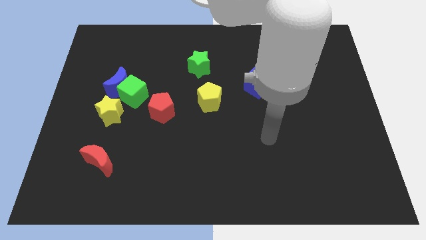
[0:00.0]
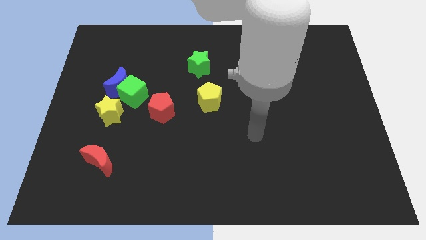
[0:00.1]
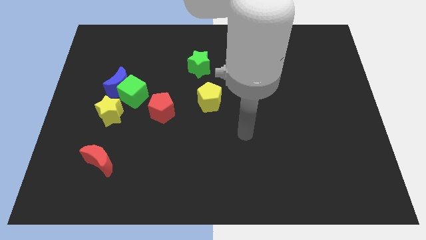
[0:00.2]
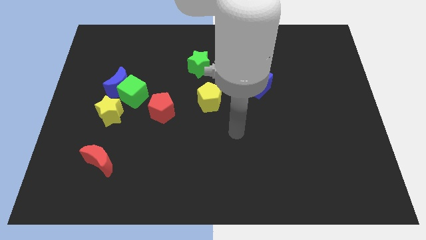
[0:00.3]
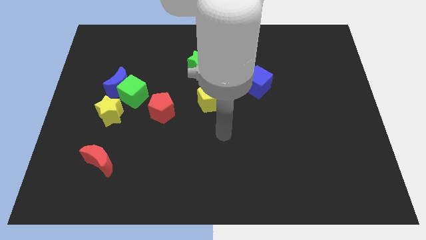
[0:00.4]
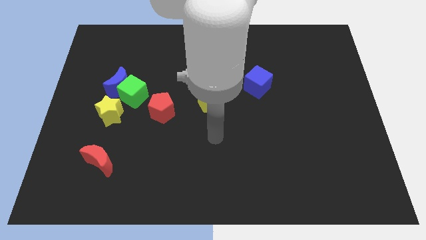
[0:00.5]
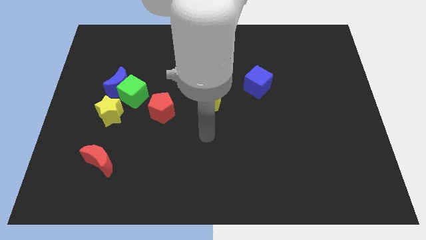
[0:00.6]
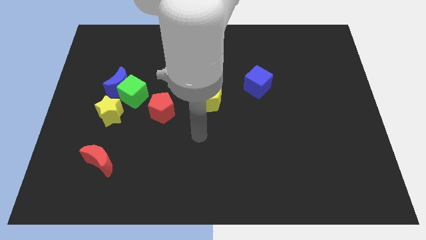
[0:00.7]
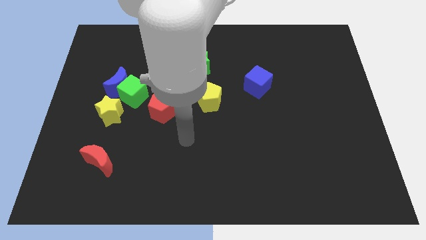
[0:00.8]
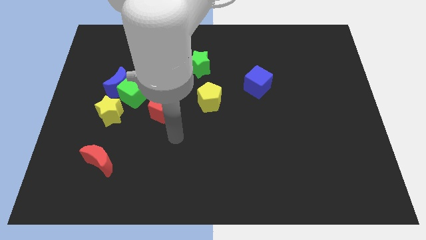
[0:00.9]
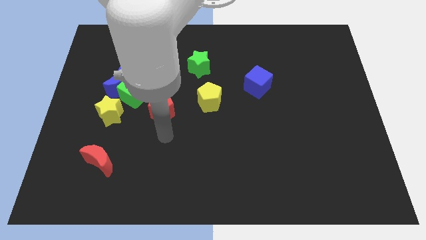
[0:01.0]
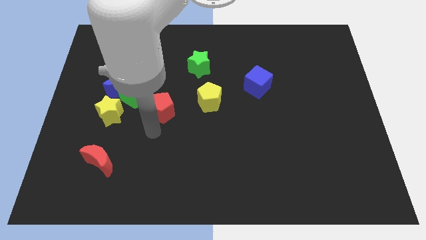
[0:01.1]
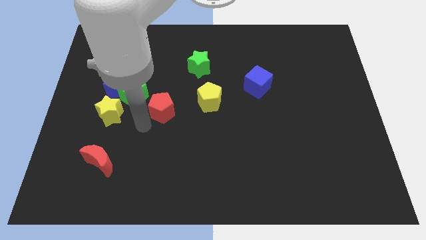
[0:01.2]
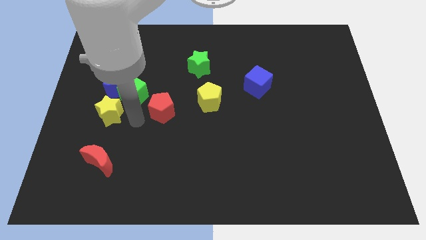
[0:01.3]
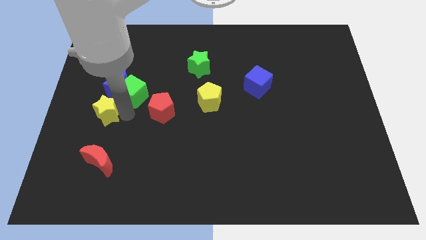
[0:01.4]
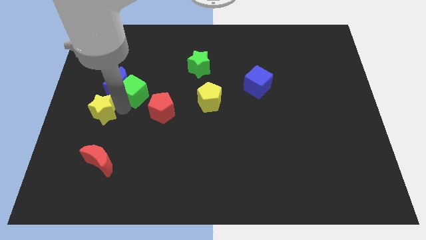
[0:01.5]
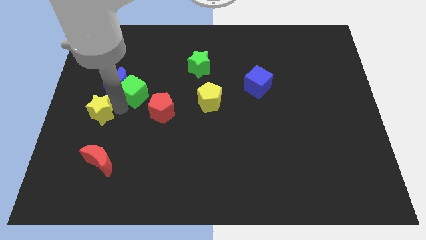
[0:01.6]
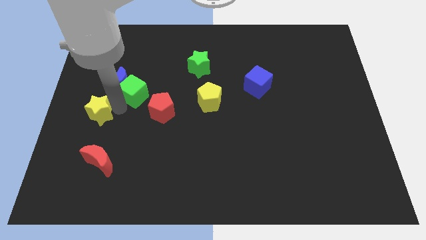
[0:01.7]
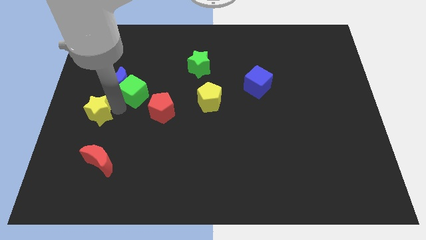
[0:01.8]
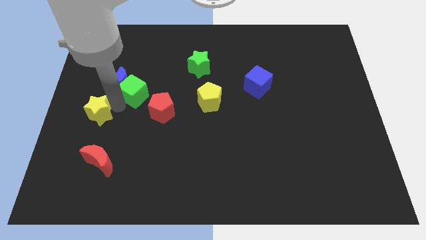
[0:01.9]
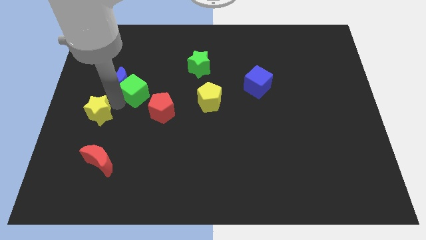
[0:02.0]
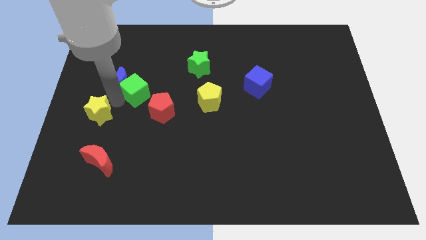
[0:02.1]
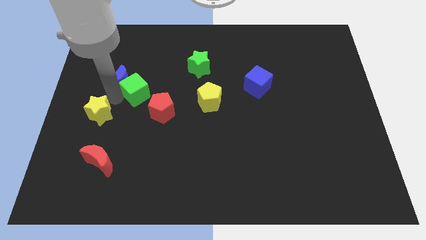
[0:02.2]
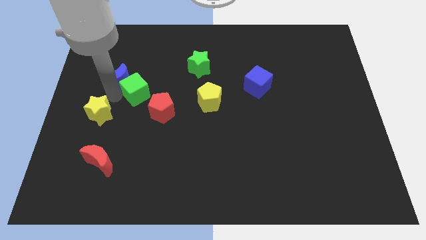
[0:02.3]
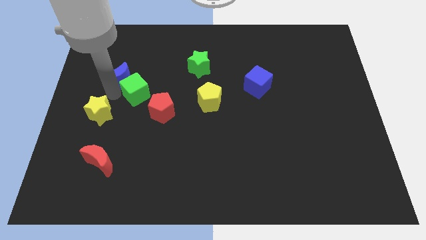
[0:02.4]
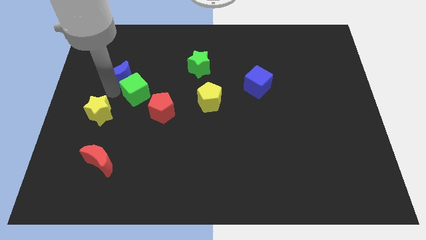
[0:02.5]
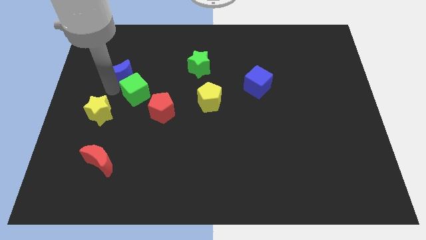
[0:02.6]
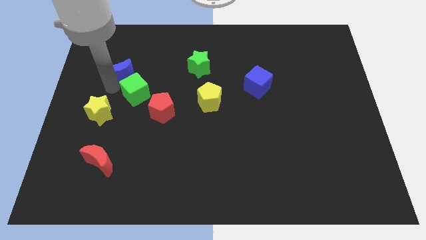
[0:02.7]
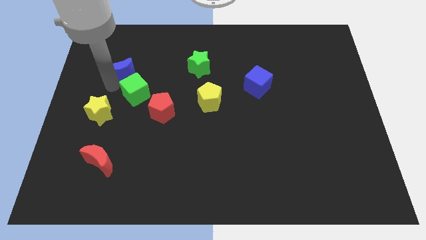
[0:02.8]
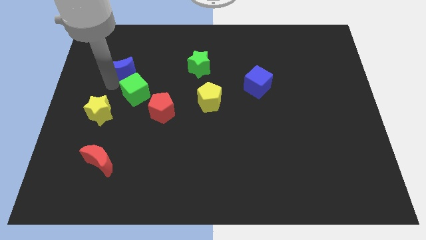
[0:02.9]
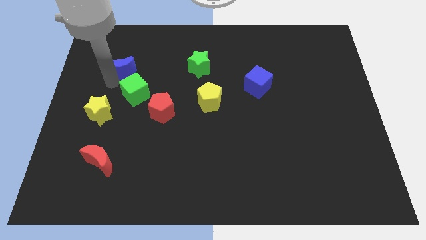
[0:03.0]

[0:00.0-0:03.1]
separate the blue moon from the green cube and yellow star

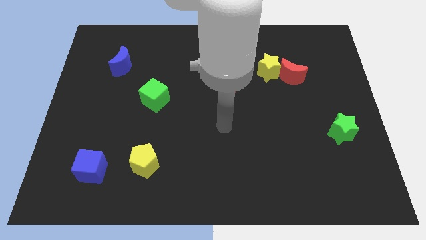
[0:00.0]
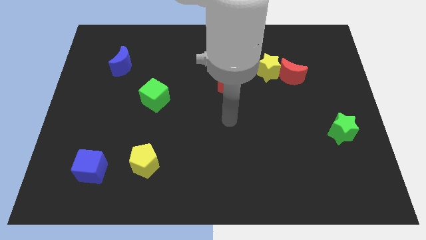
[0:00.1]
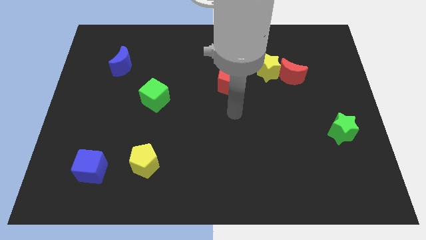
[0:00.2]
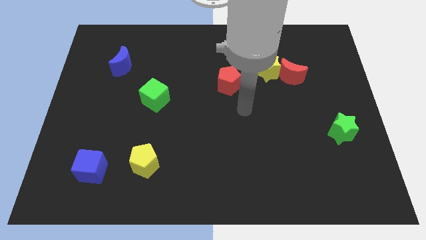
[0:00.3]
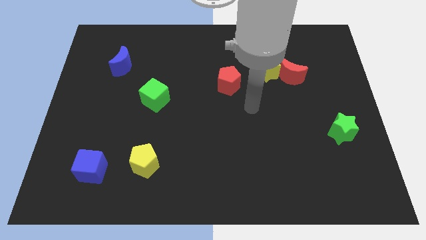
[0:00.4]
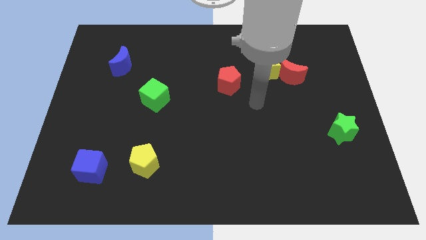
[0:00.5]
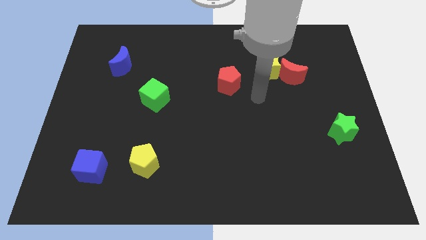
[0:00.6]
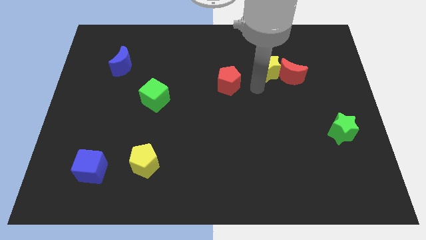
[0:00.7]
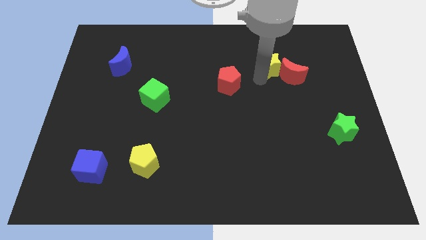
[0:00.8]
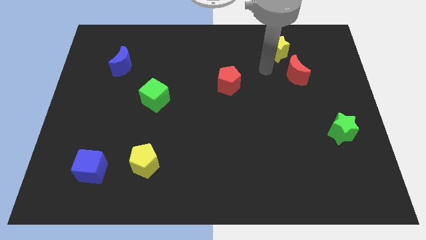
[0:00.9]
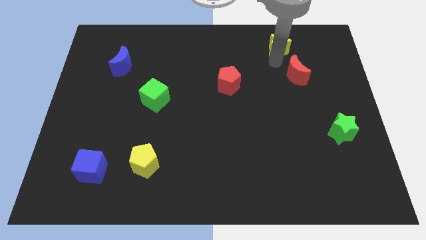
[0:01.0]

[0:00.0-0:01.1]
pull the red moon apart from the yellow star

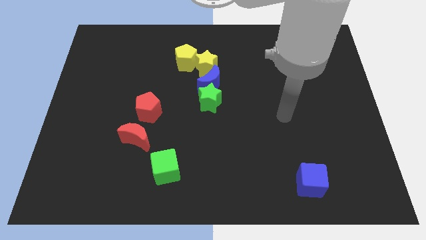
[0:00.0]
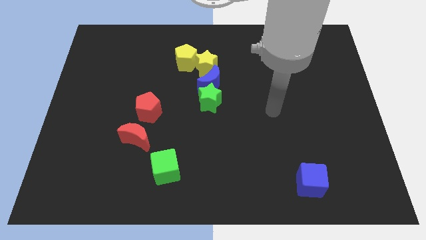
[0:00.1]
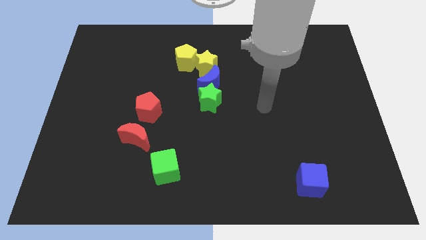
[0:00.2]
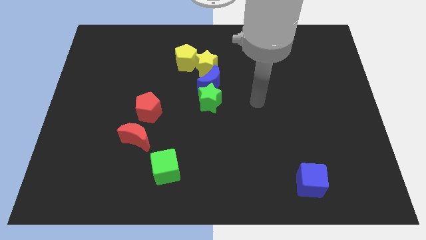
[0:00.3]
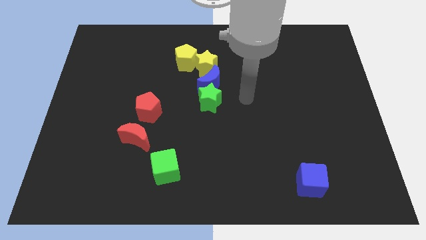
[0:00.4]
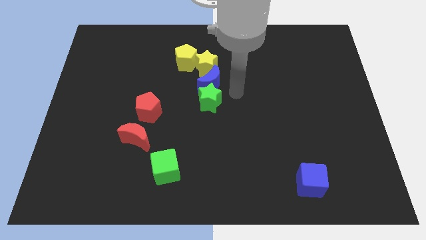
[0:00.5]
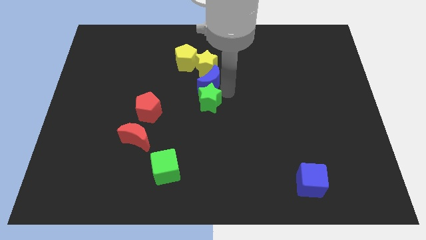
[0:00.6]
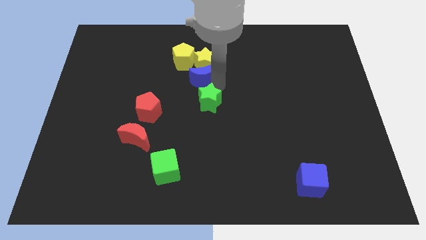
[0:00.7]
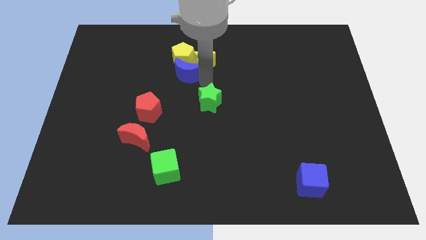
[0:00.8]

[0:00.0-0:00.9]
move the green star away from the blue moon

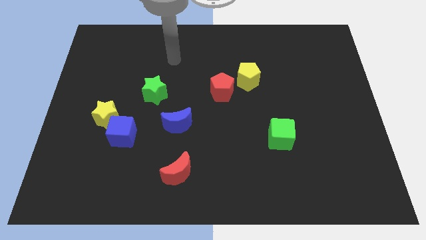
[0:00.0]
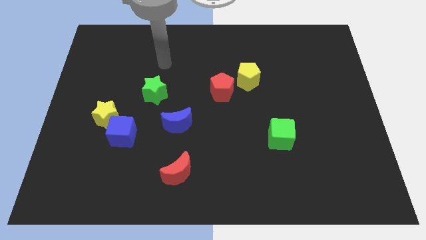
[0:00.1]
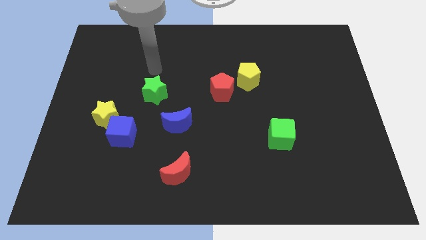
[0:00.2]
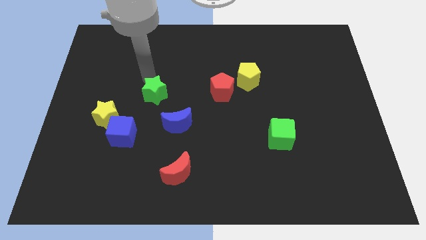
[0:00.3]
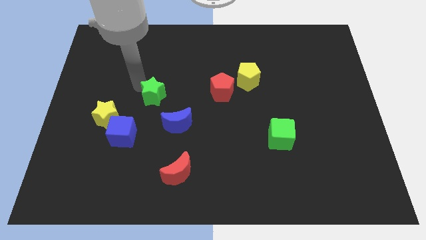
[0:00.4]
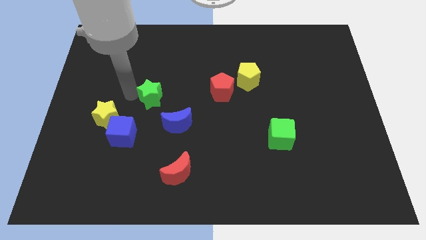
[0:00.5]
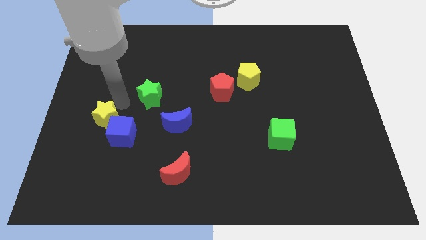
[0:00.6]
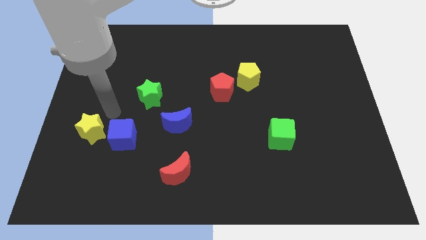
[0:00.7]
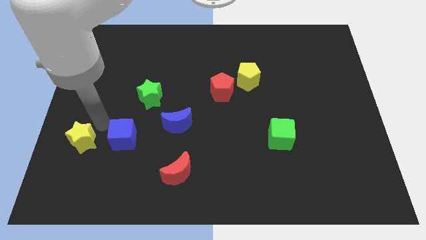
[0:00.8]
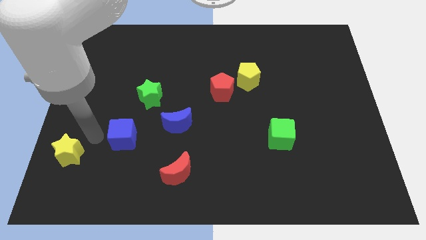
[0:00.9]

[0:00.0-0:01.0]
move the blue cube away from the yellow star

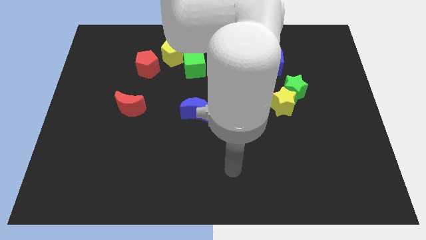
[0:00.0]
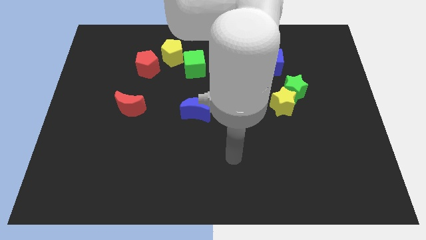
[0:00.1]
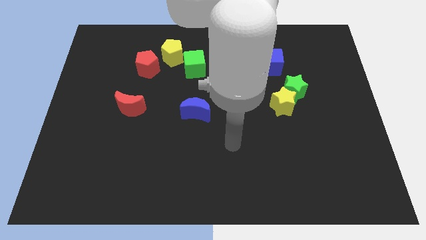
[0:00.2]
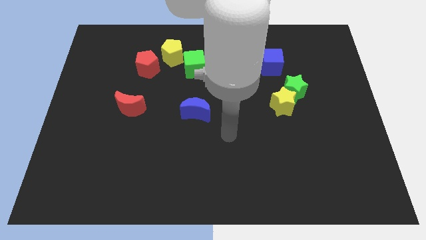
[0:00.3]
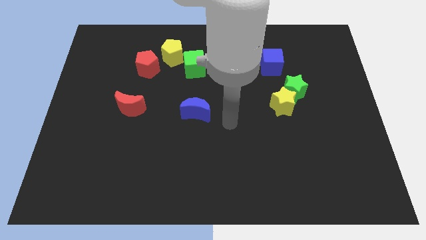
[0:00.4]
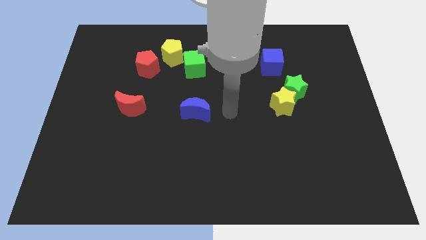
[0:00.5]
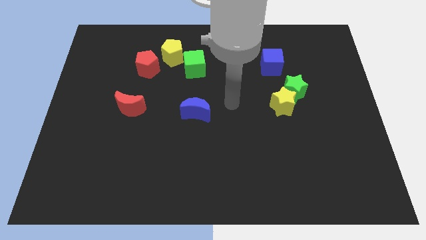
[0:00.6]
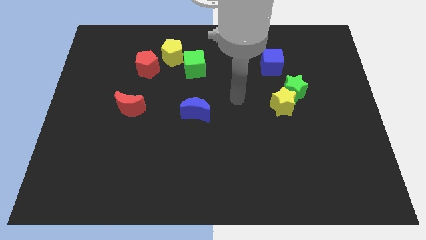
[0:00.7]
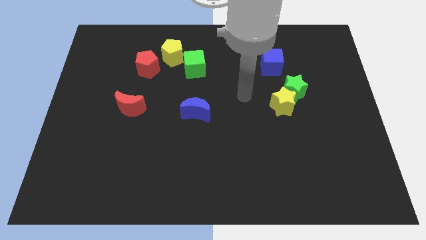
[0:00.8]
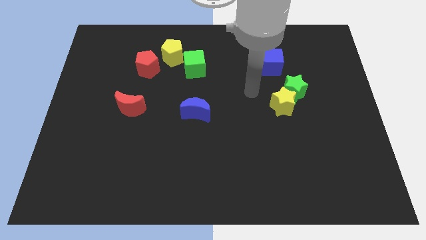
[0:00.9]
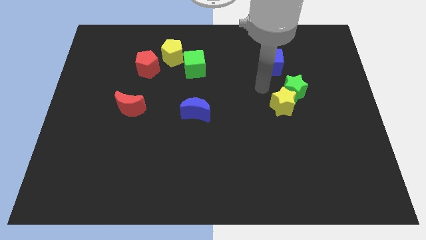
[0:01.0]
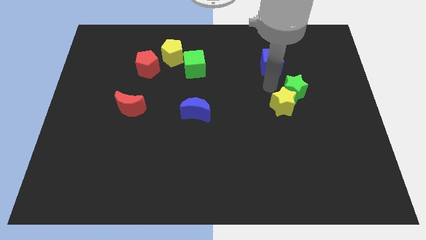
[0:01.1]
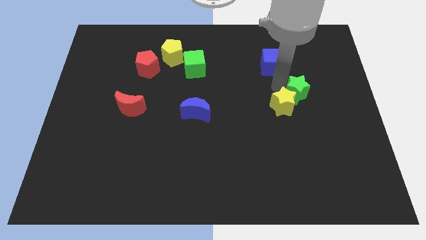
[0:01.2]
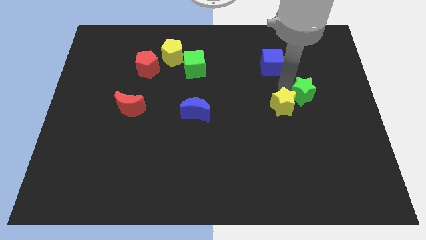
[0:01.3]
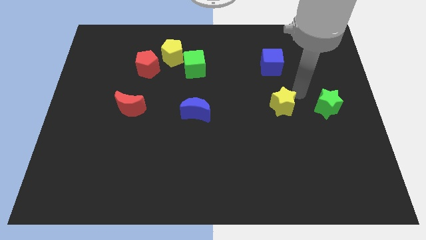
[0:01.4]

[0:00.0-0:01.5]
pull the yellow star apart from the green star

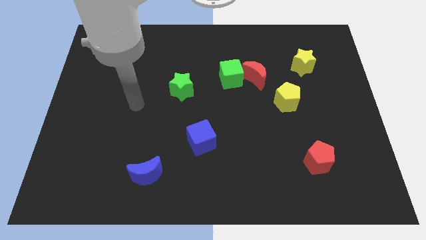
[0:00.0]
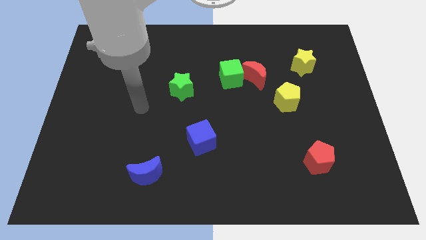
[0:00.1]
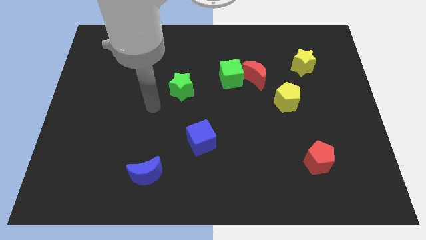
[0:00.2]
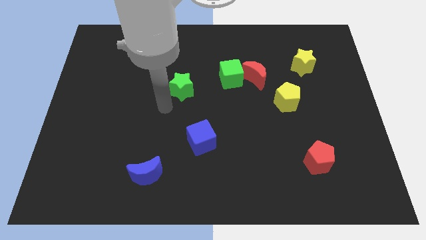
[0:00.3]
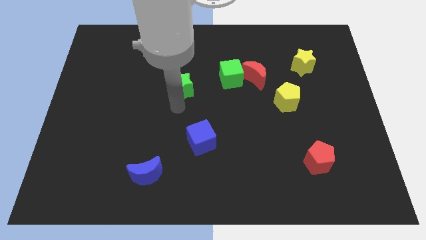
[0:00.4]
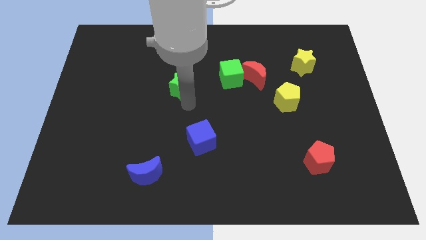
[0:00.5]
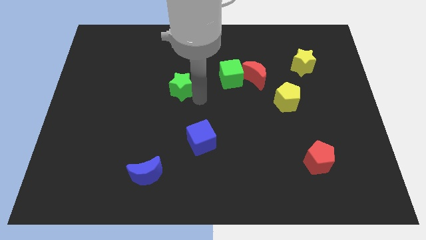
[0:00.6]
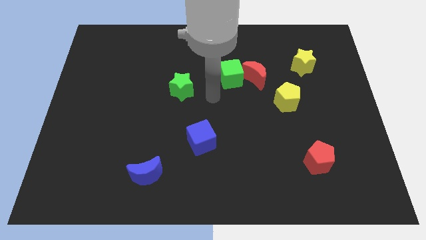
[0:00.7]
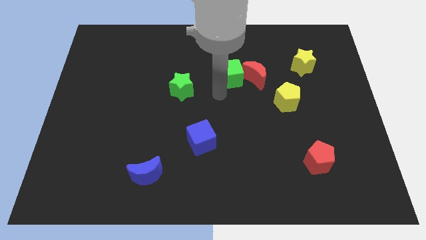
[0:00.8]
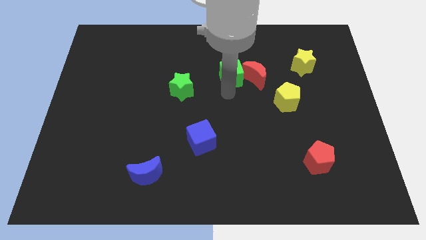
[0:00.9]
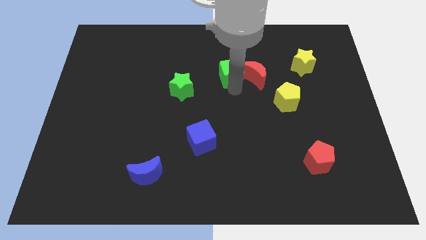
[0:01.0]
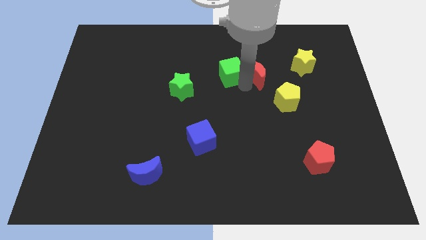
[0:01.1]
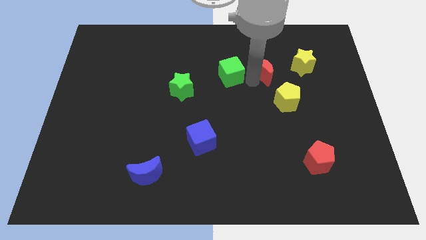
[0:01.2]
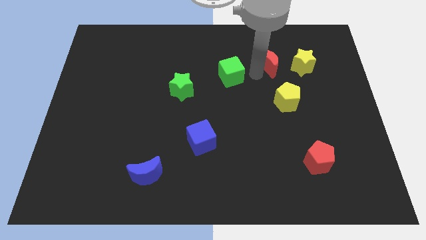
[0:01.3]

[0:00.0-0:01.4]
move the green cube away from the red moon

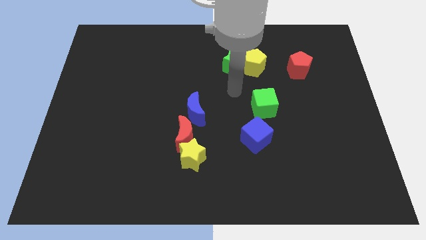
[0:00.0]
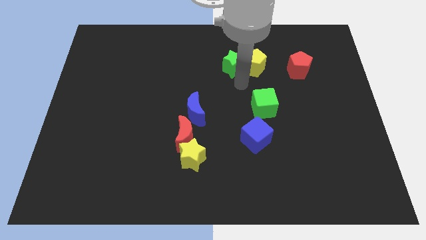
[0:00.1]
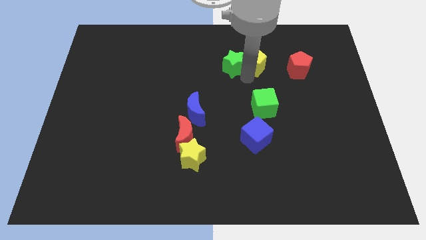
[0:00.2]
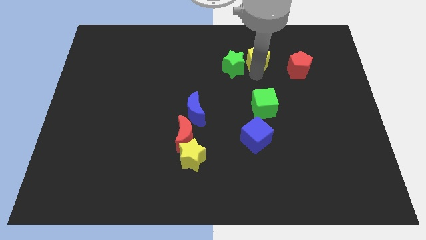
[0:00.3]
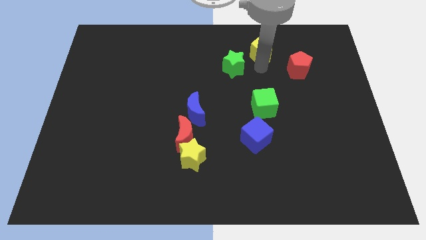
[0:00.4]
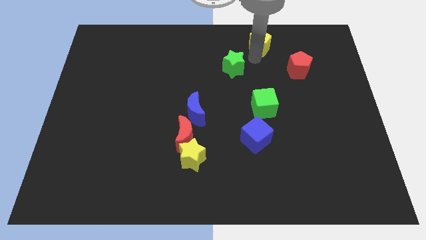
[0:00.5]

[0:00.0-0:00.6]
separate the green star from the yellow pentagon
